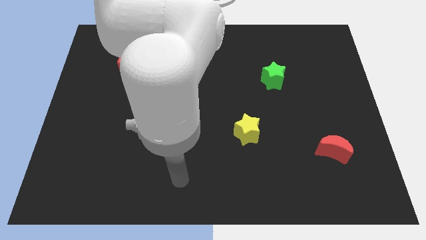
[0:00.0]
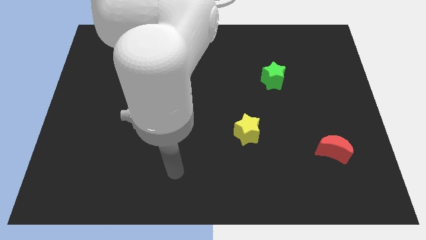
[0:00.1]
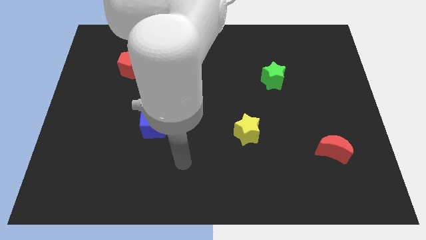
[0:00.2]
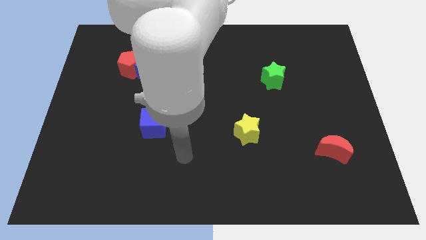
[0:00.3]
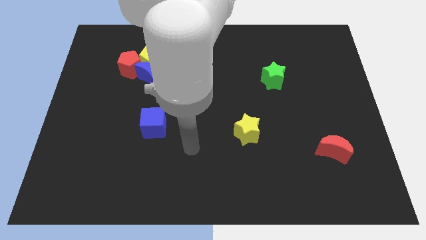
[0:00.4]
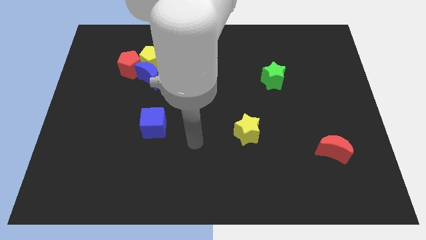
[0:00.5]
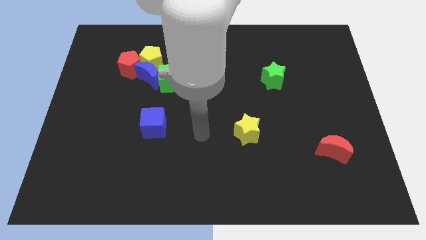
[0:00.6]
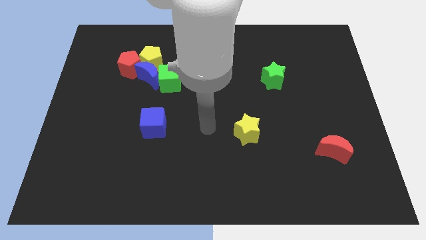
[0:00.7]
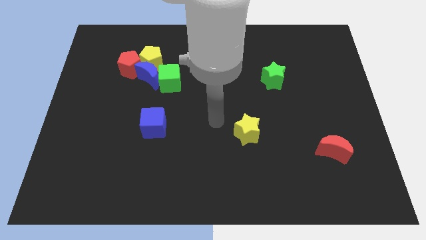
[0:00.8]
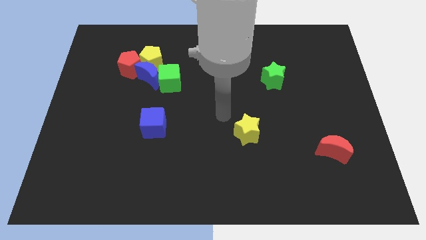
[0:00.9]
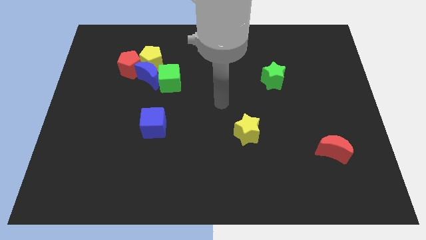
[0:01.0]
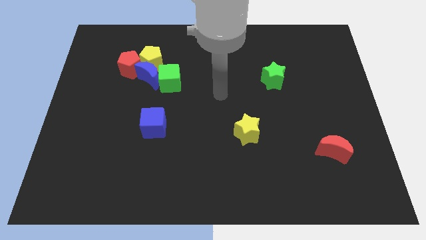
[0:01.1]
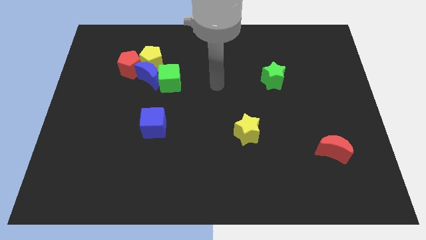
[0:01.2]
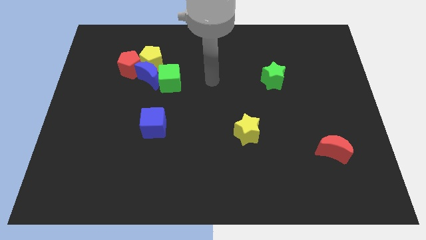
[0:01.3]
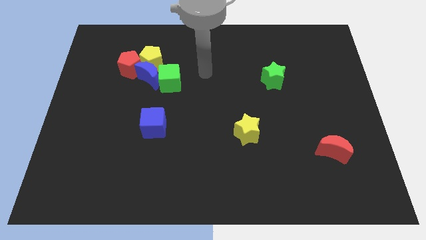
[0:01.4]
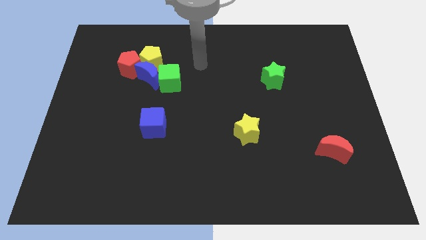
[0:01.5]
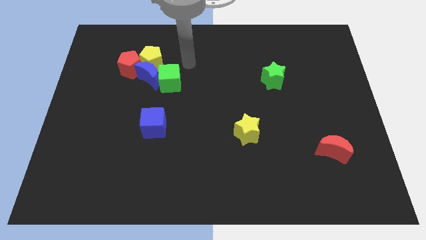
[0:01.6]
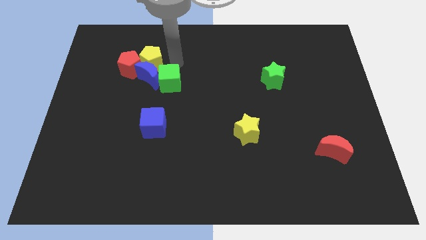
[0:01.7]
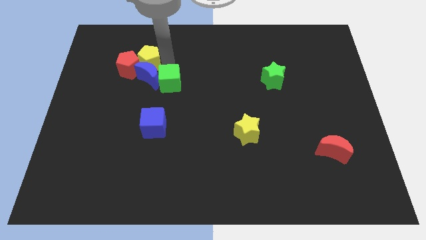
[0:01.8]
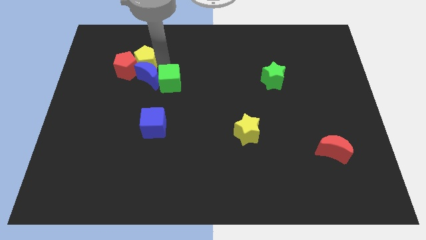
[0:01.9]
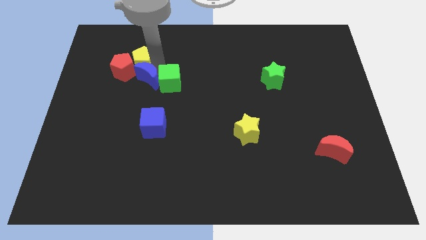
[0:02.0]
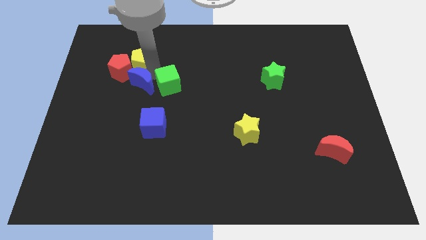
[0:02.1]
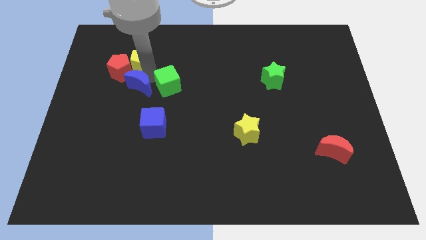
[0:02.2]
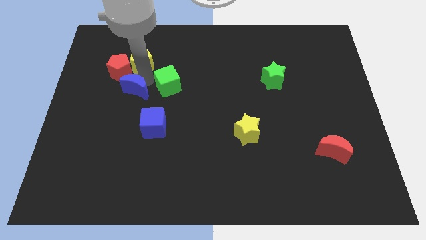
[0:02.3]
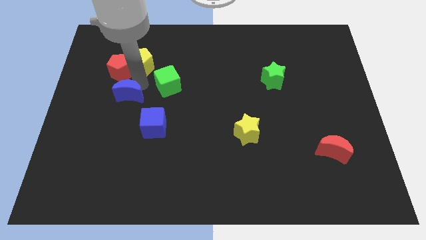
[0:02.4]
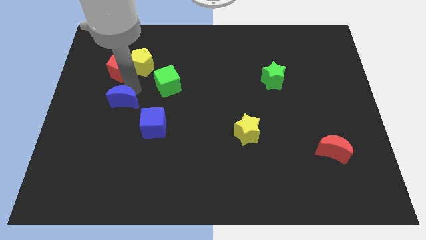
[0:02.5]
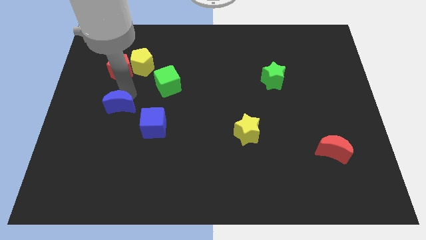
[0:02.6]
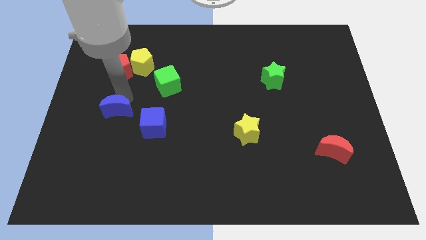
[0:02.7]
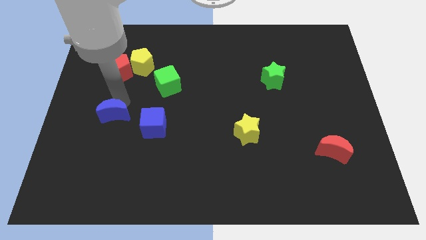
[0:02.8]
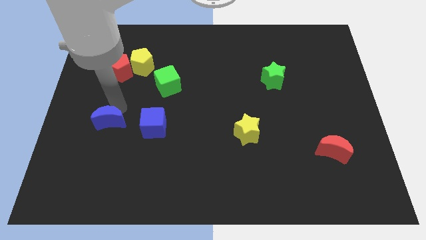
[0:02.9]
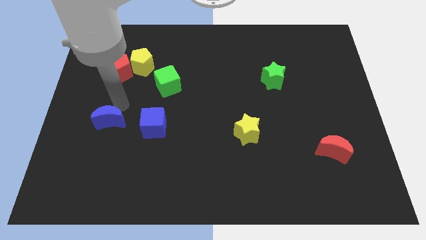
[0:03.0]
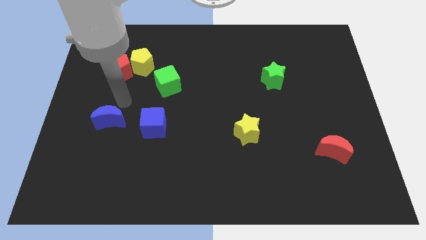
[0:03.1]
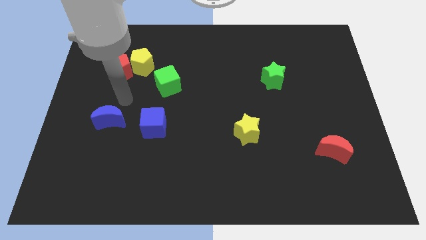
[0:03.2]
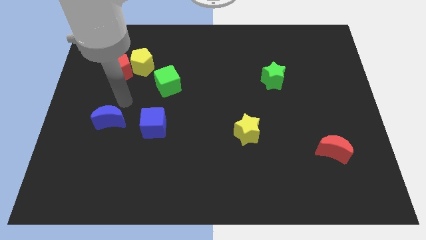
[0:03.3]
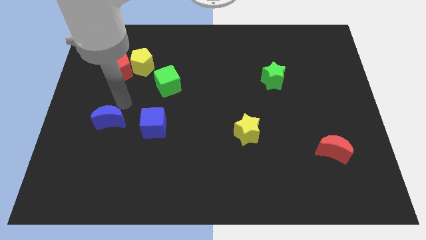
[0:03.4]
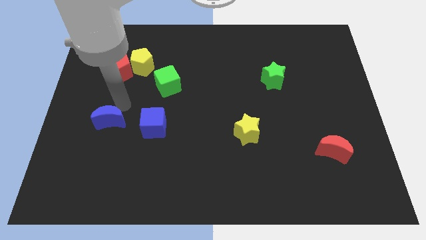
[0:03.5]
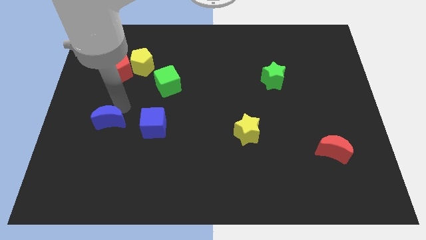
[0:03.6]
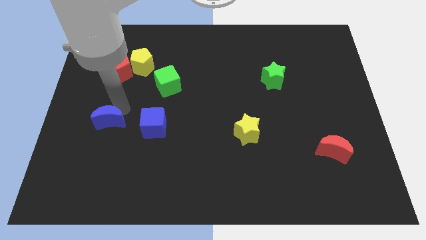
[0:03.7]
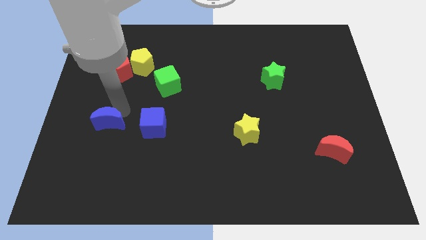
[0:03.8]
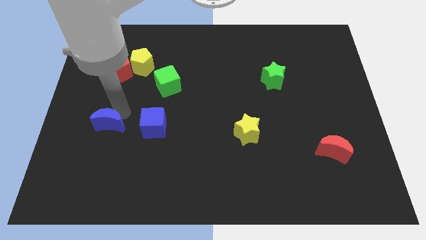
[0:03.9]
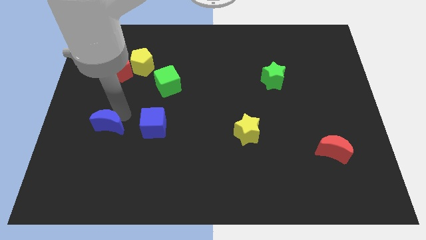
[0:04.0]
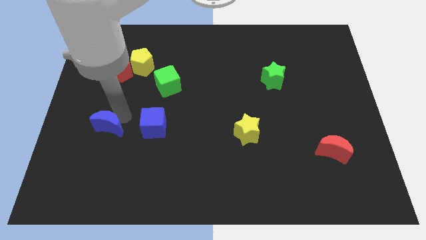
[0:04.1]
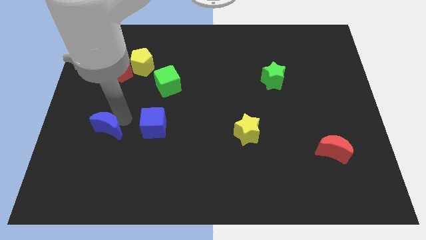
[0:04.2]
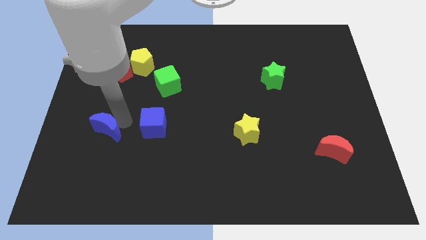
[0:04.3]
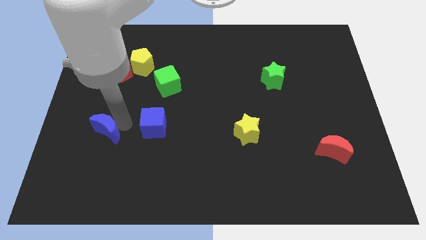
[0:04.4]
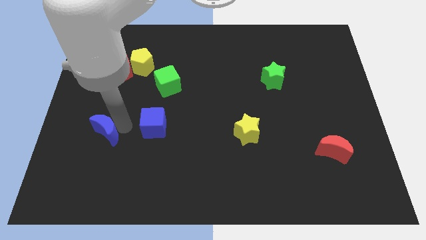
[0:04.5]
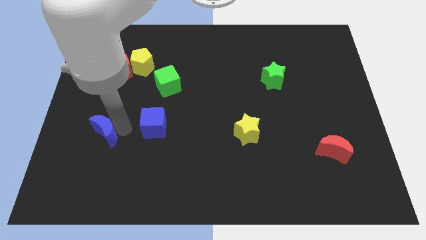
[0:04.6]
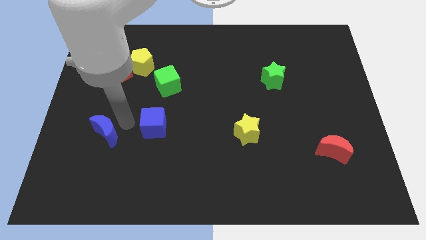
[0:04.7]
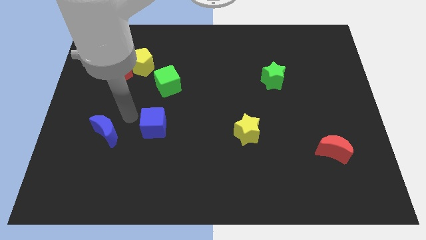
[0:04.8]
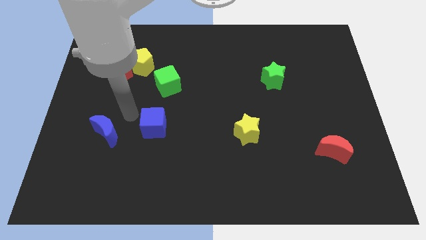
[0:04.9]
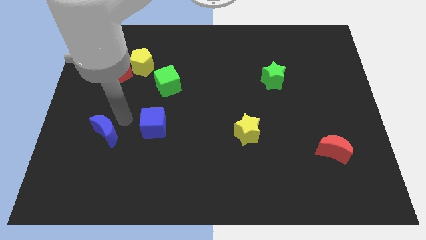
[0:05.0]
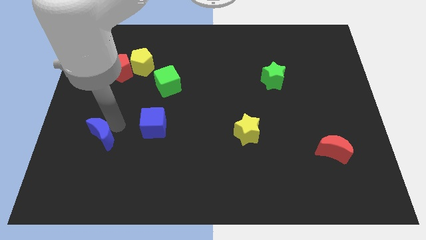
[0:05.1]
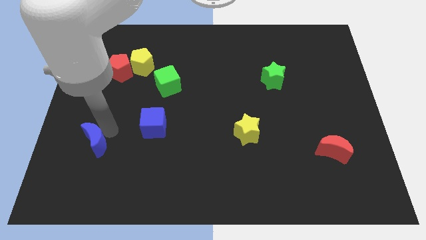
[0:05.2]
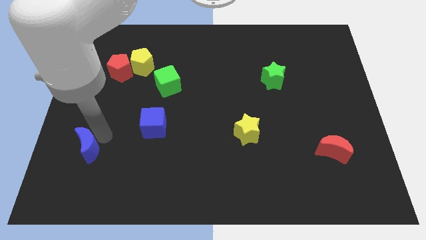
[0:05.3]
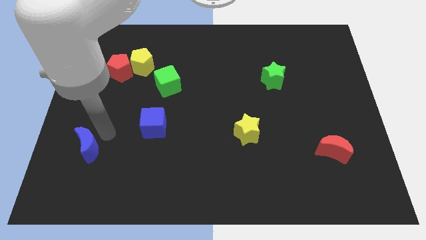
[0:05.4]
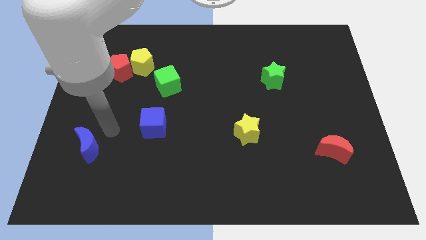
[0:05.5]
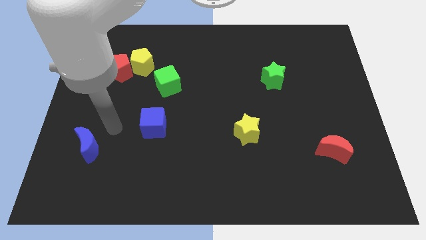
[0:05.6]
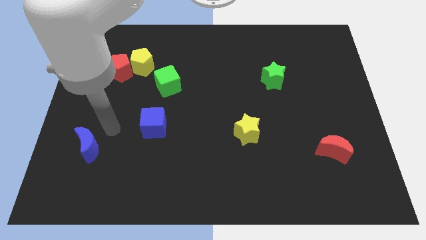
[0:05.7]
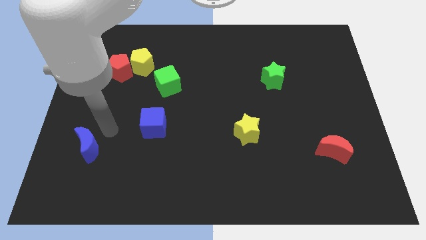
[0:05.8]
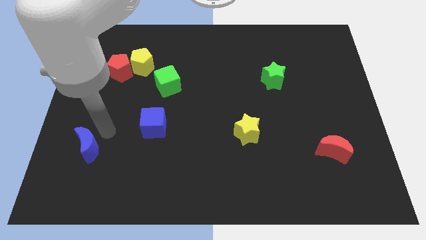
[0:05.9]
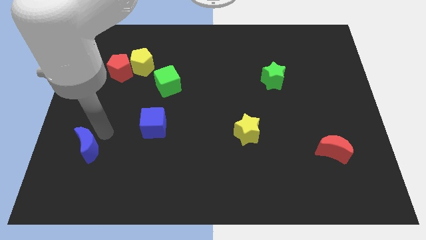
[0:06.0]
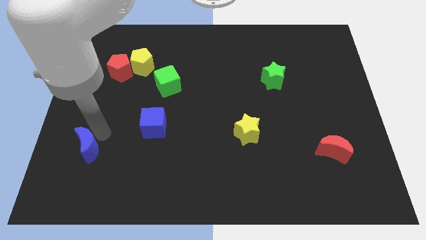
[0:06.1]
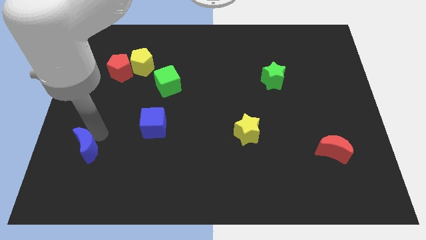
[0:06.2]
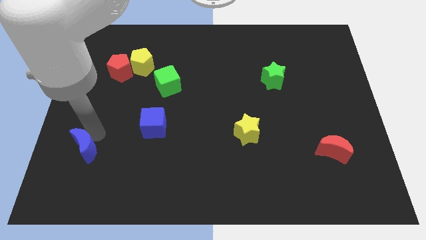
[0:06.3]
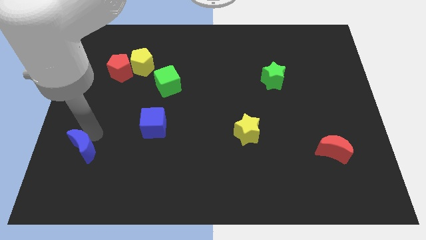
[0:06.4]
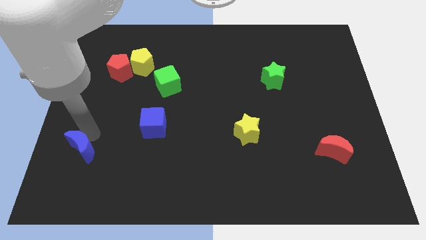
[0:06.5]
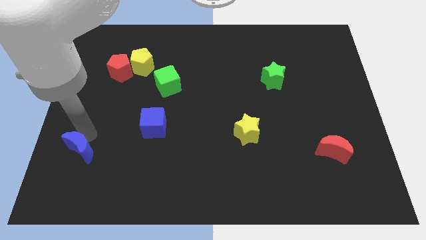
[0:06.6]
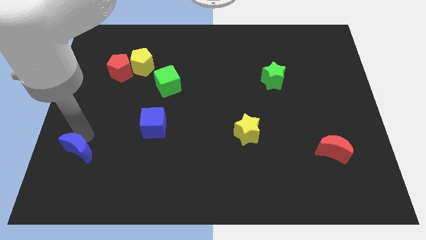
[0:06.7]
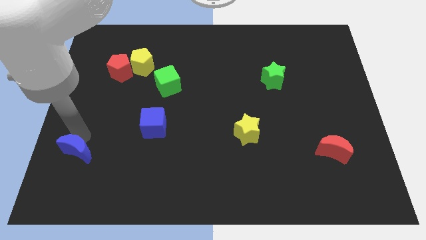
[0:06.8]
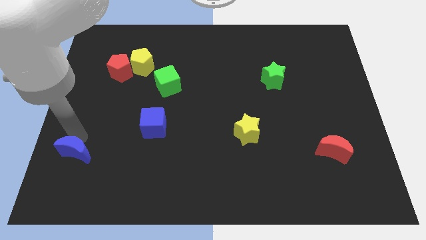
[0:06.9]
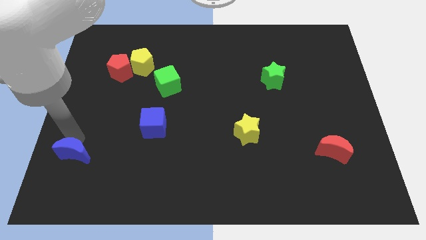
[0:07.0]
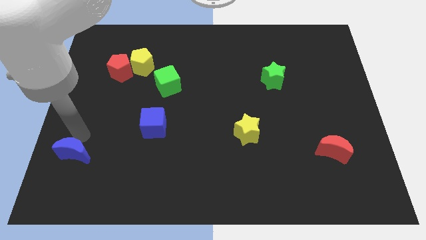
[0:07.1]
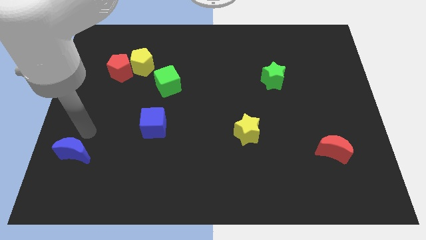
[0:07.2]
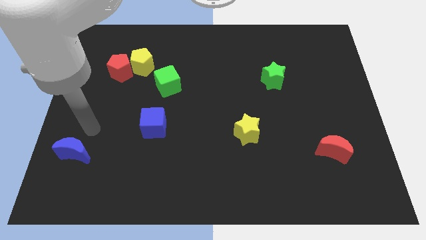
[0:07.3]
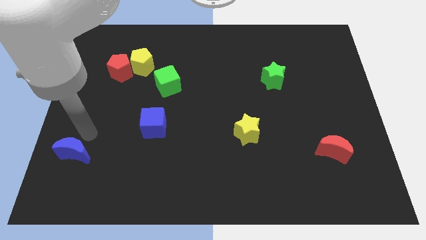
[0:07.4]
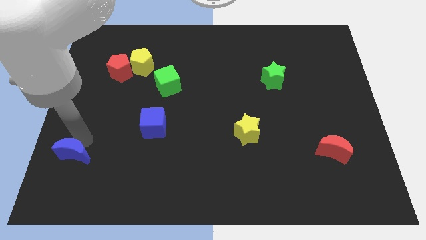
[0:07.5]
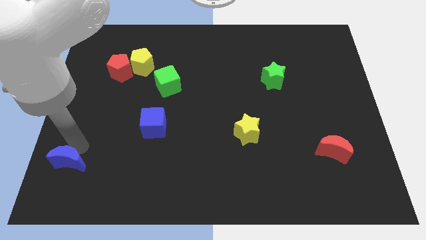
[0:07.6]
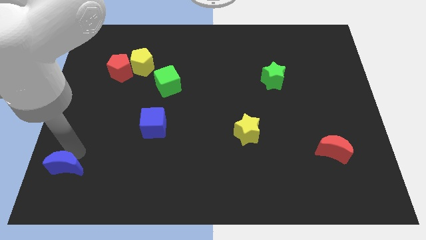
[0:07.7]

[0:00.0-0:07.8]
push the blue moon to the lower left corner
